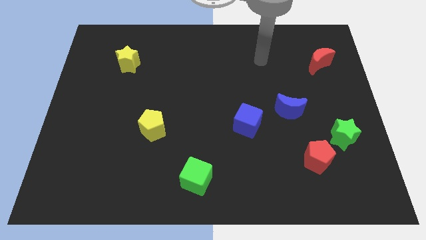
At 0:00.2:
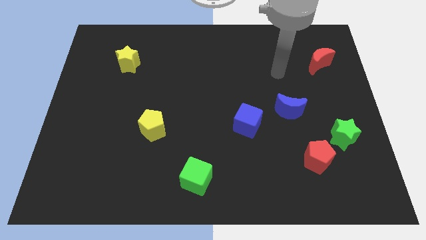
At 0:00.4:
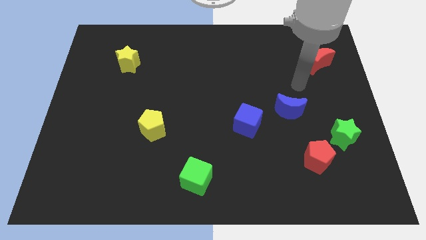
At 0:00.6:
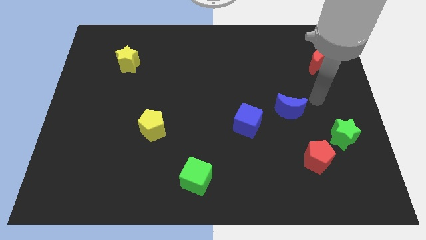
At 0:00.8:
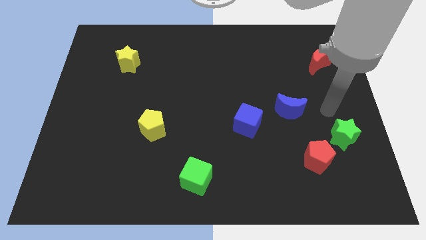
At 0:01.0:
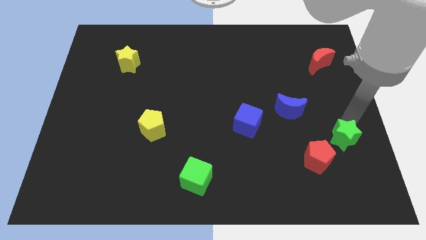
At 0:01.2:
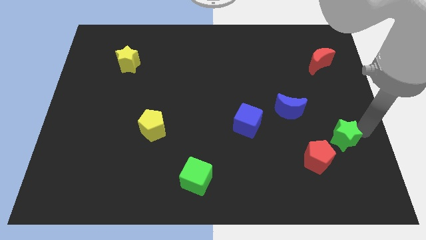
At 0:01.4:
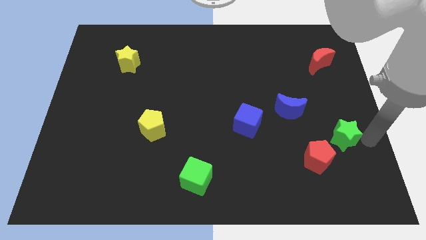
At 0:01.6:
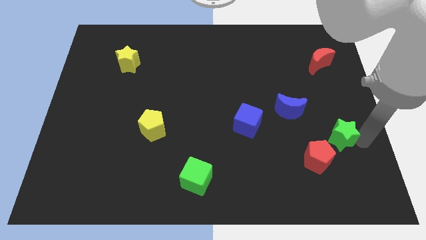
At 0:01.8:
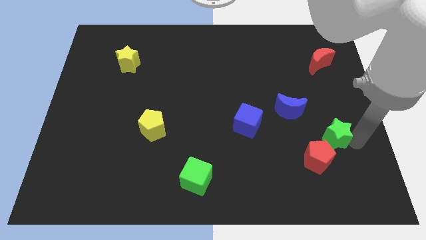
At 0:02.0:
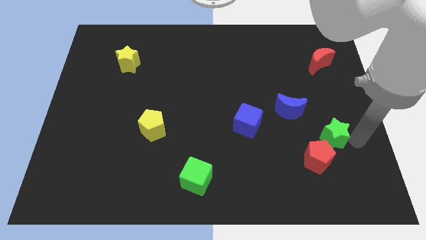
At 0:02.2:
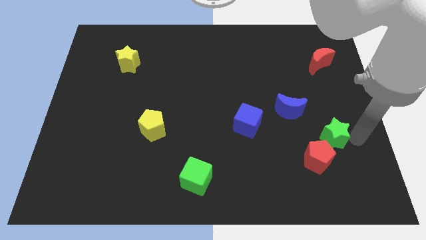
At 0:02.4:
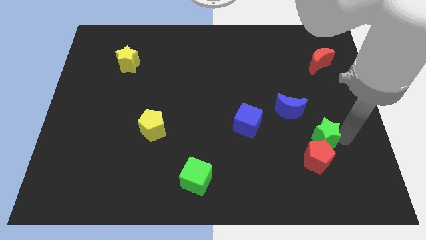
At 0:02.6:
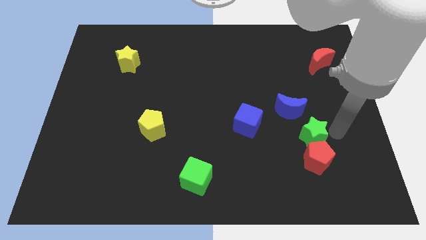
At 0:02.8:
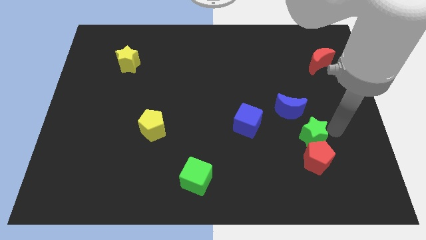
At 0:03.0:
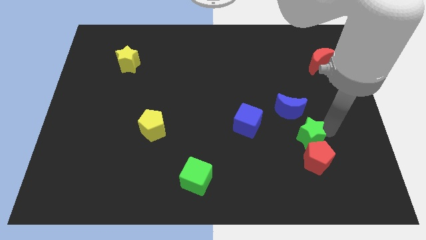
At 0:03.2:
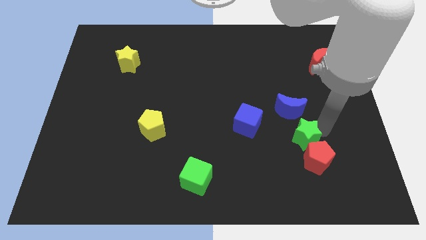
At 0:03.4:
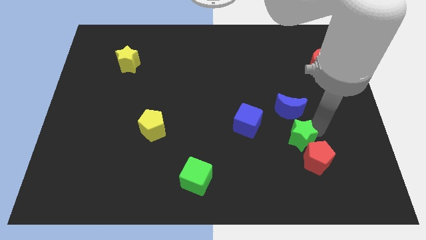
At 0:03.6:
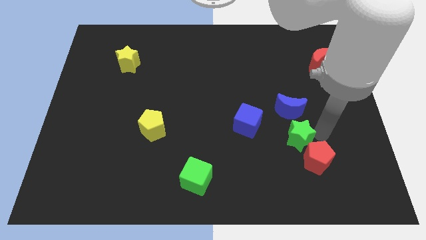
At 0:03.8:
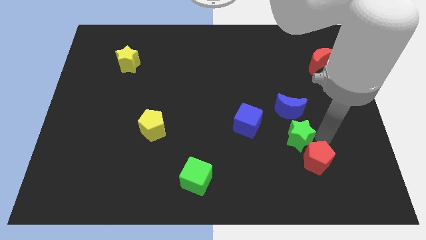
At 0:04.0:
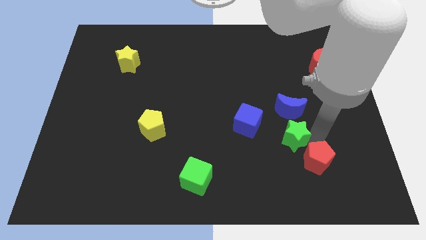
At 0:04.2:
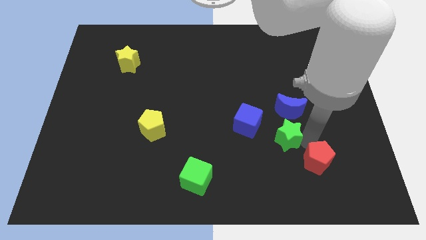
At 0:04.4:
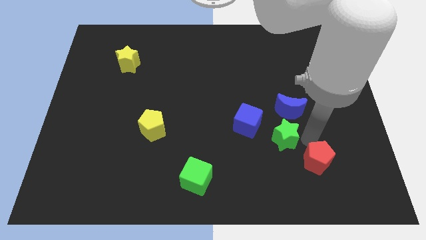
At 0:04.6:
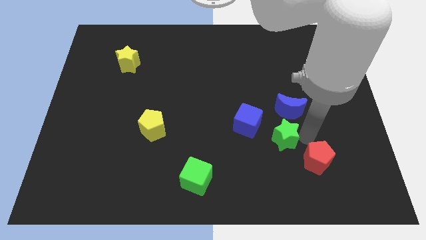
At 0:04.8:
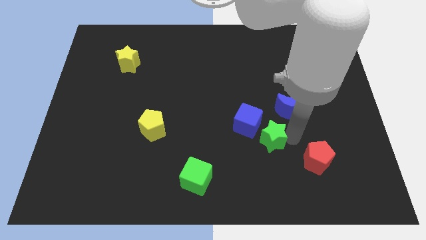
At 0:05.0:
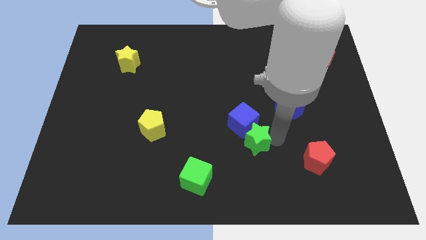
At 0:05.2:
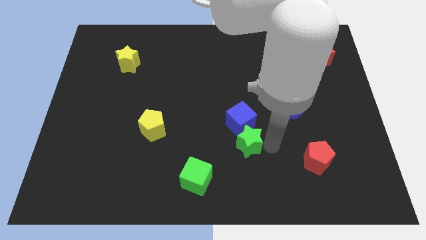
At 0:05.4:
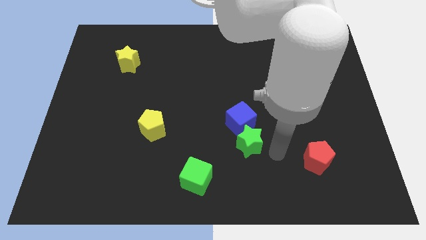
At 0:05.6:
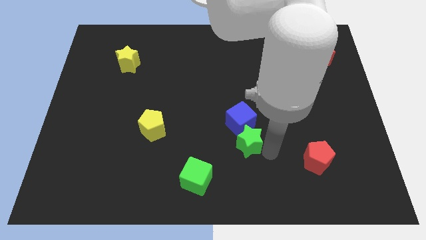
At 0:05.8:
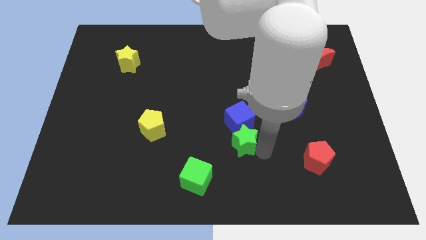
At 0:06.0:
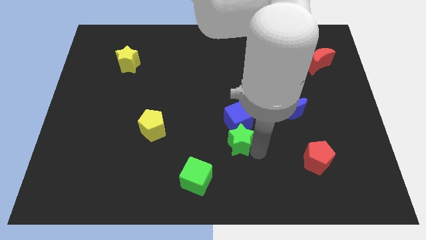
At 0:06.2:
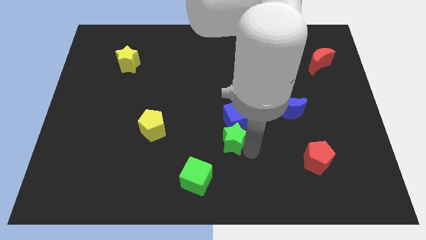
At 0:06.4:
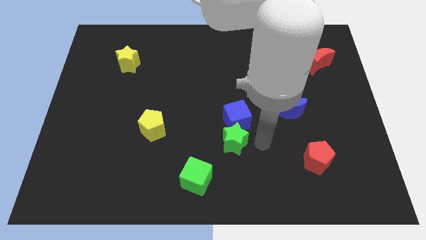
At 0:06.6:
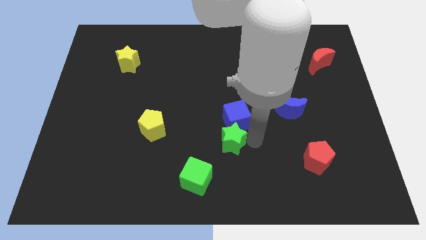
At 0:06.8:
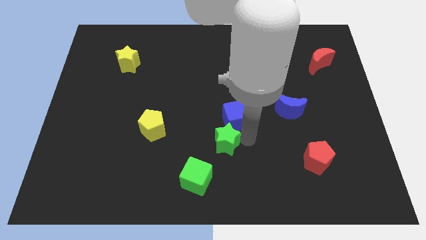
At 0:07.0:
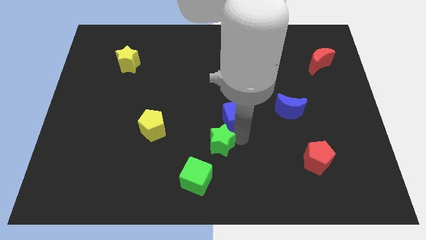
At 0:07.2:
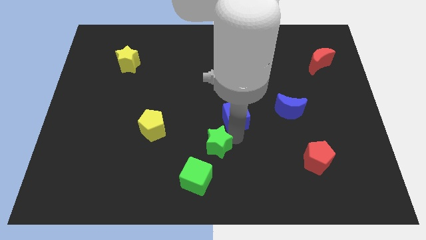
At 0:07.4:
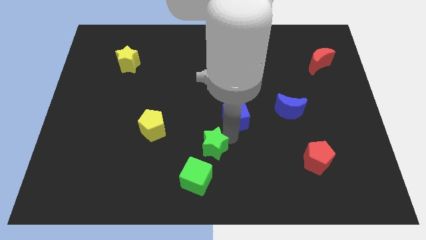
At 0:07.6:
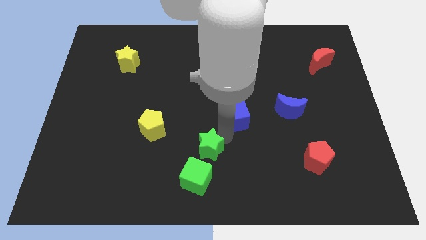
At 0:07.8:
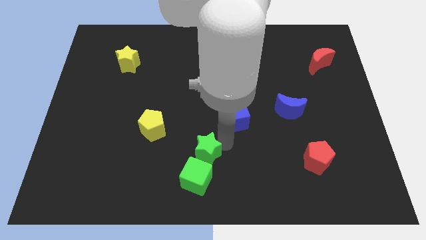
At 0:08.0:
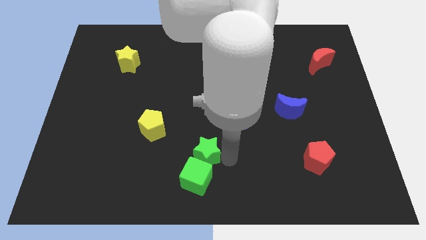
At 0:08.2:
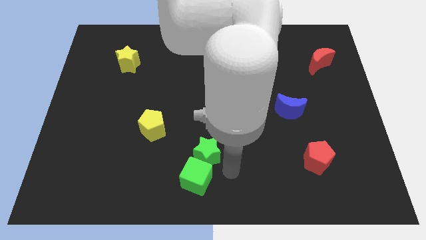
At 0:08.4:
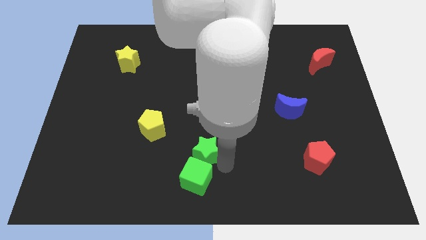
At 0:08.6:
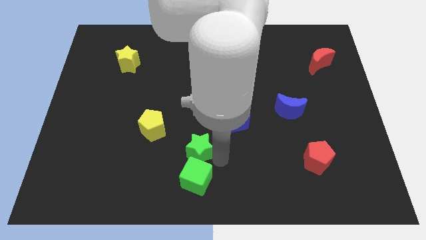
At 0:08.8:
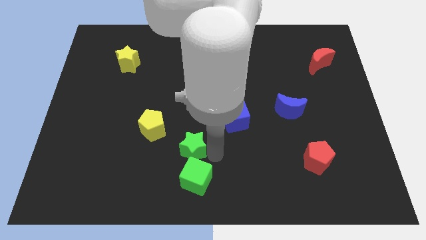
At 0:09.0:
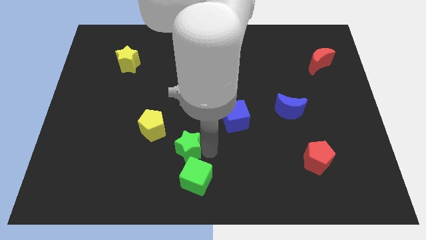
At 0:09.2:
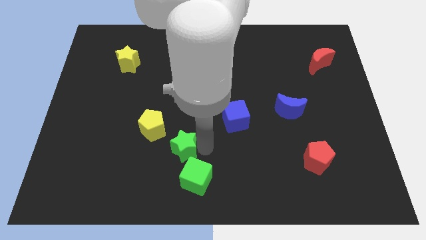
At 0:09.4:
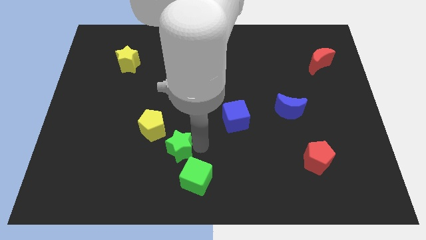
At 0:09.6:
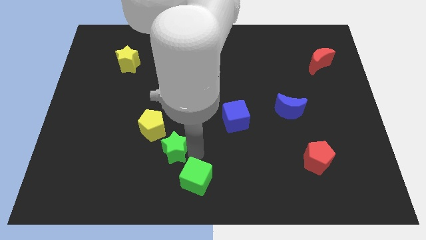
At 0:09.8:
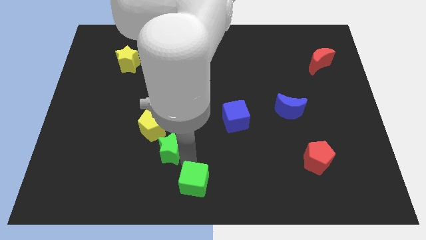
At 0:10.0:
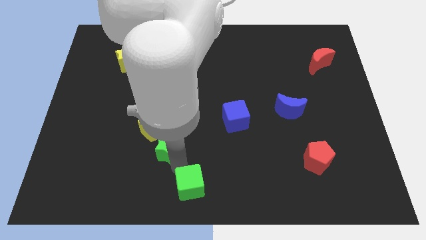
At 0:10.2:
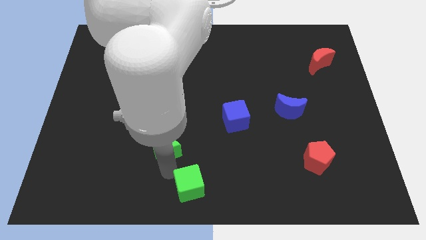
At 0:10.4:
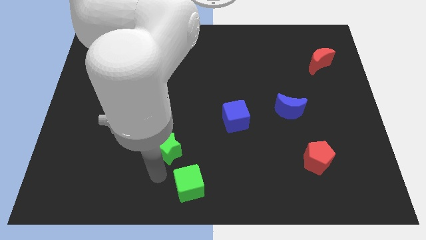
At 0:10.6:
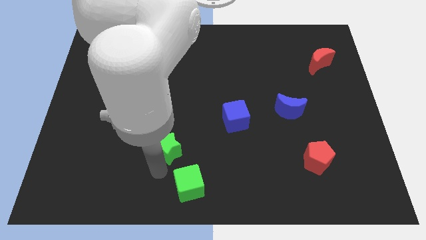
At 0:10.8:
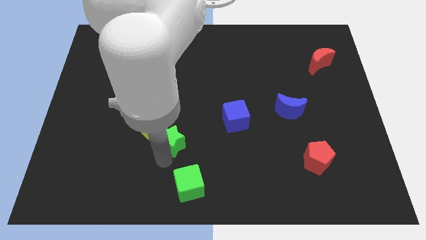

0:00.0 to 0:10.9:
move the green star to the yellow pentagon
